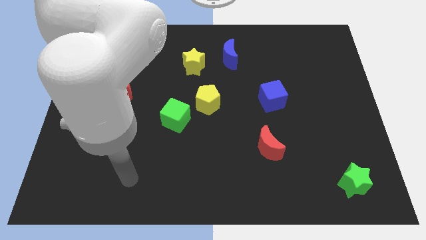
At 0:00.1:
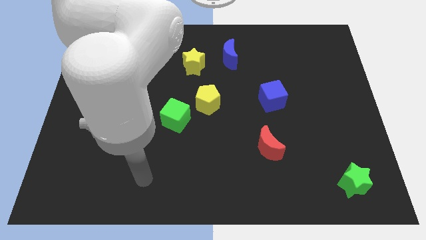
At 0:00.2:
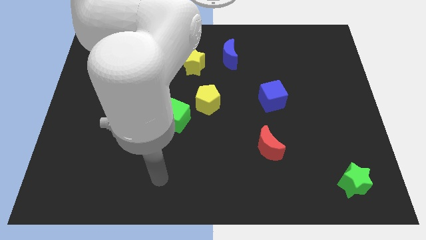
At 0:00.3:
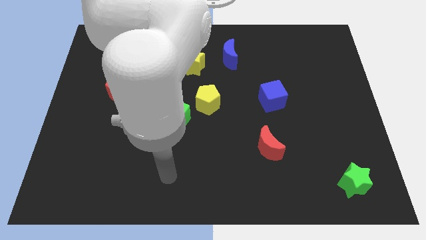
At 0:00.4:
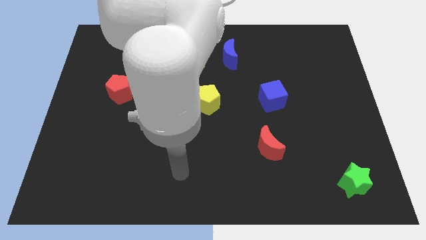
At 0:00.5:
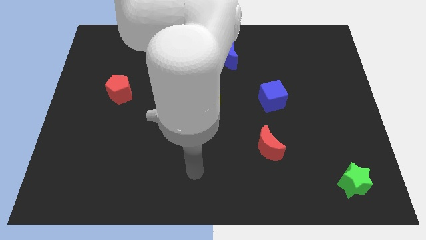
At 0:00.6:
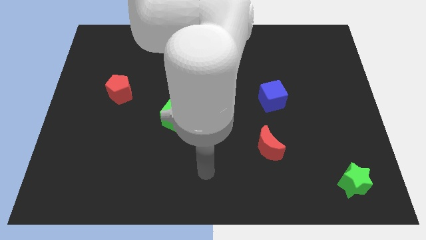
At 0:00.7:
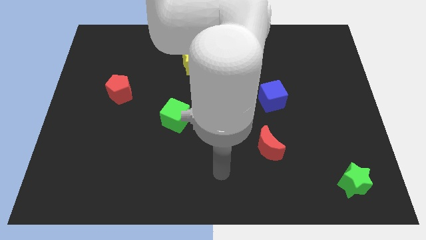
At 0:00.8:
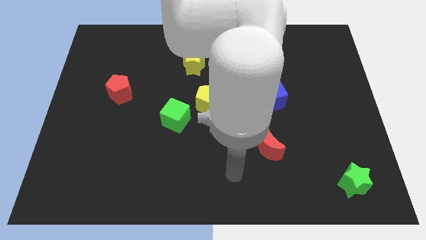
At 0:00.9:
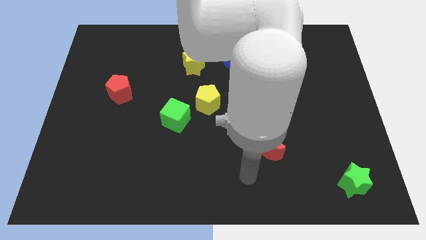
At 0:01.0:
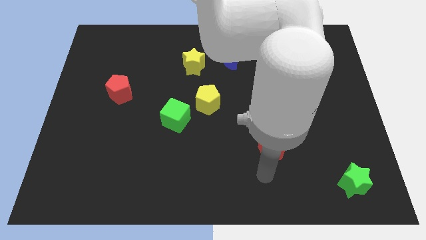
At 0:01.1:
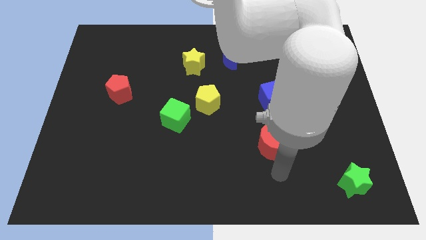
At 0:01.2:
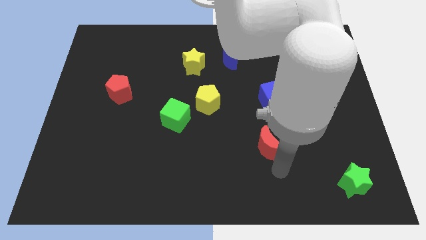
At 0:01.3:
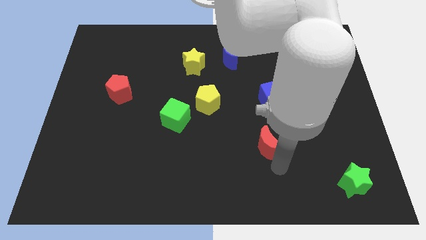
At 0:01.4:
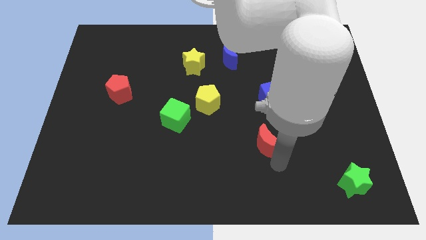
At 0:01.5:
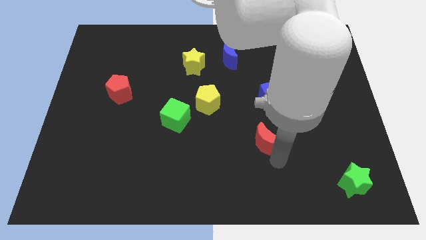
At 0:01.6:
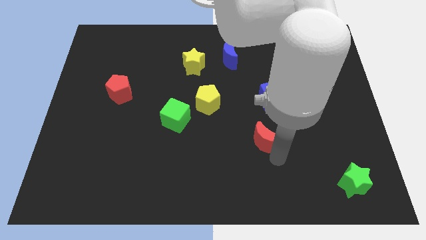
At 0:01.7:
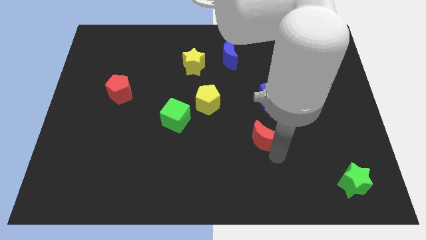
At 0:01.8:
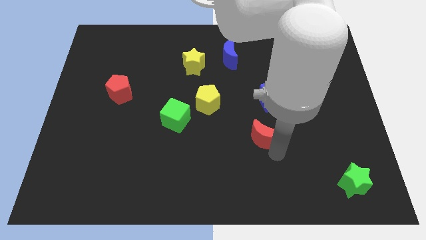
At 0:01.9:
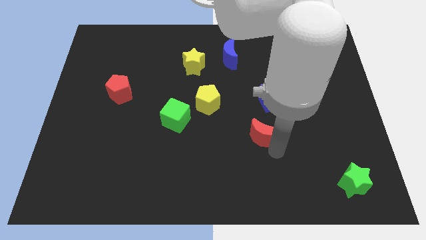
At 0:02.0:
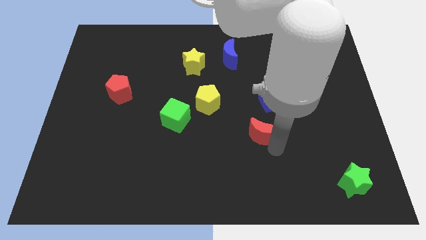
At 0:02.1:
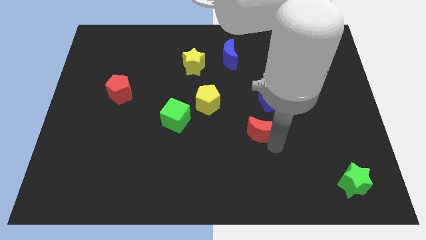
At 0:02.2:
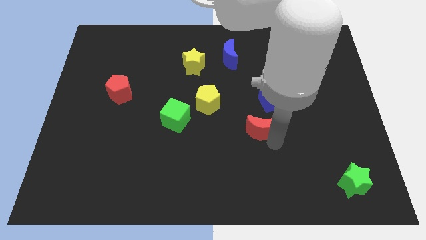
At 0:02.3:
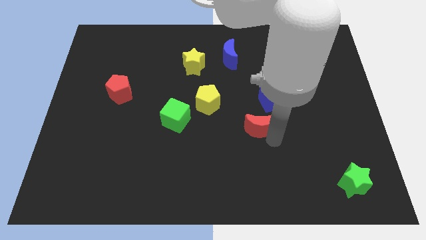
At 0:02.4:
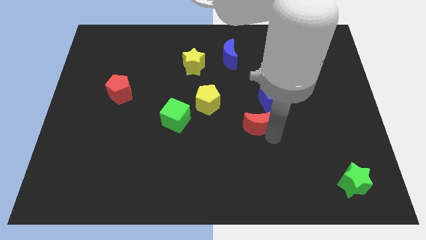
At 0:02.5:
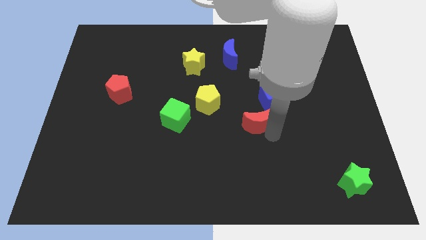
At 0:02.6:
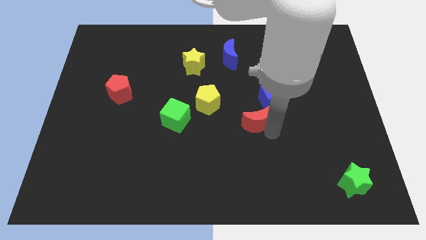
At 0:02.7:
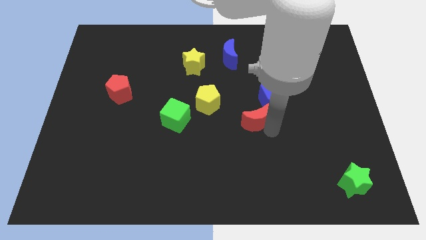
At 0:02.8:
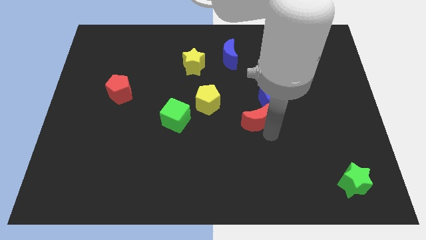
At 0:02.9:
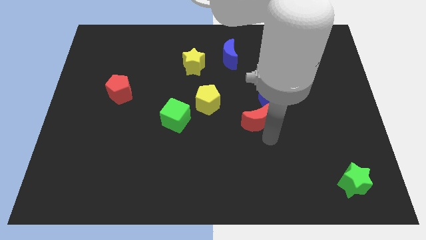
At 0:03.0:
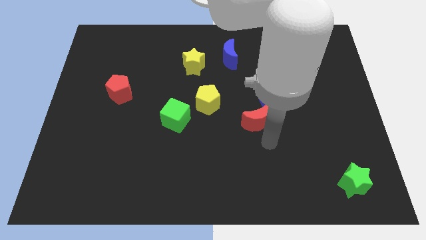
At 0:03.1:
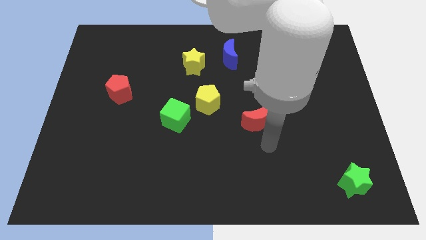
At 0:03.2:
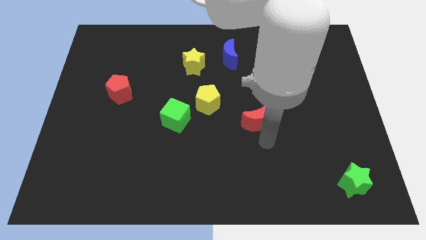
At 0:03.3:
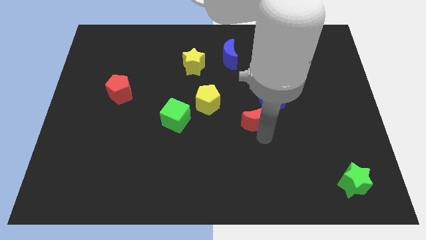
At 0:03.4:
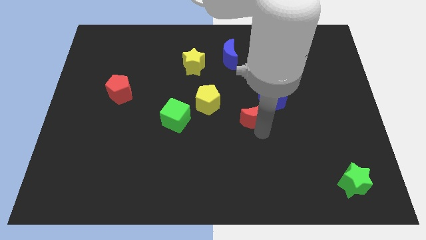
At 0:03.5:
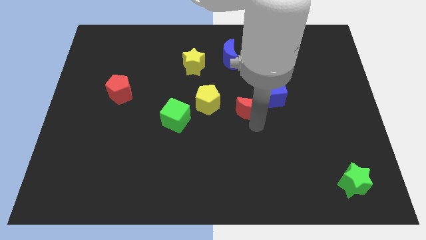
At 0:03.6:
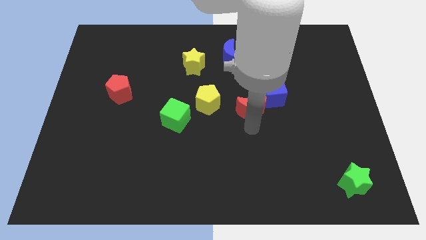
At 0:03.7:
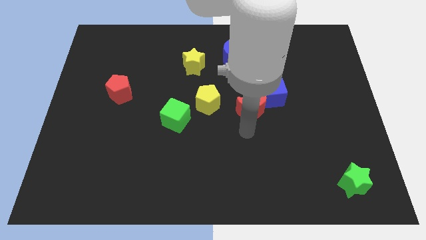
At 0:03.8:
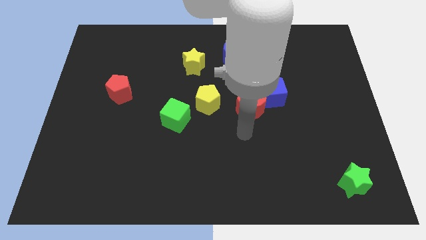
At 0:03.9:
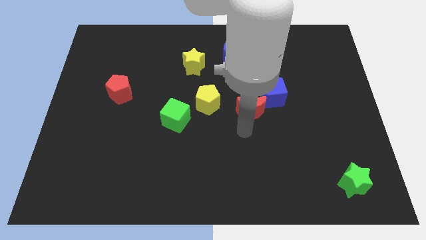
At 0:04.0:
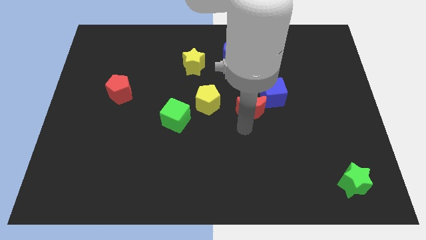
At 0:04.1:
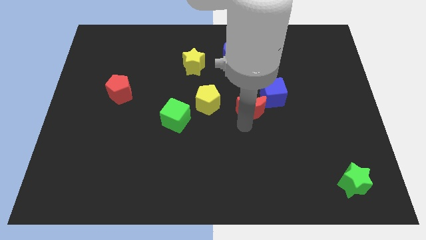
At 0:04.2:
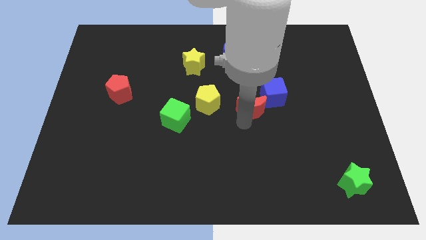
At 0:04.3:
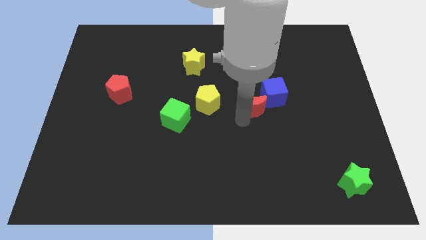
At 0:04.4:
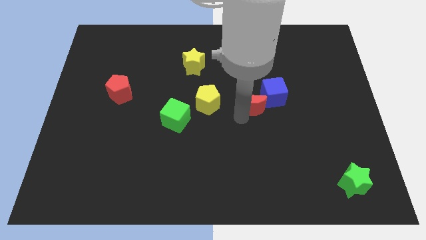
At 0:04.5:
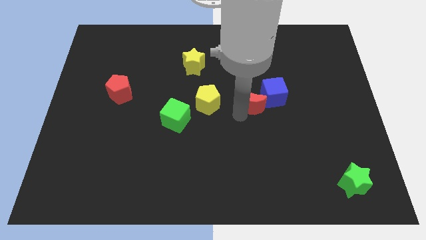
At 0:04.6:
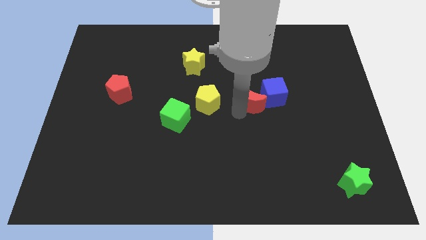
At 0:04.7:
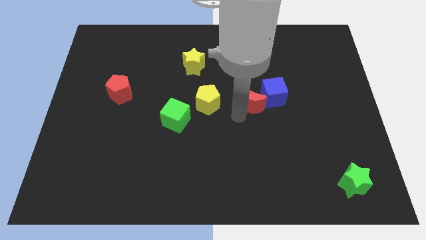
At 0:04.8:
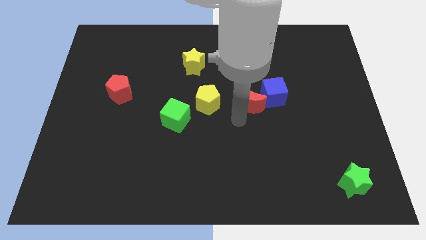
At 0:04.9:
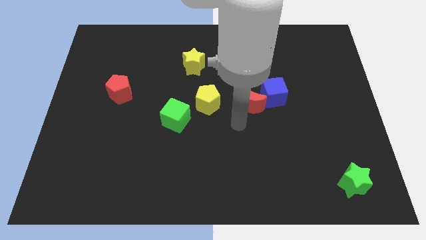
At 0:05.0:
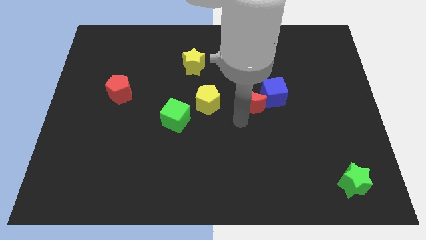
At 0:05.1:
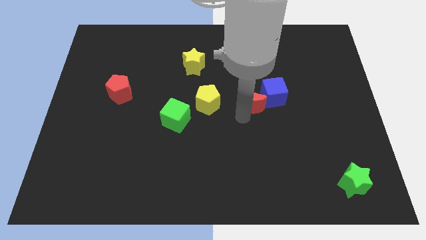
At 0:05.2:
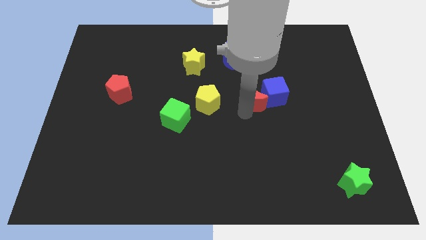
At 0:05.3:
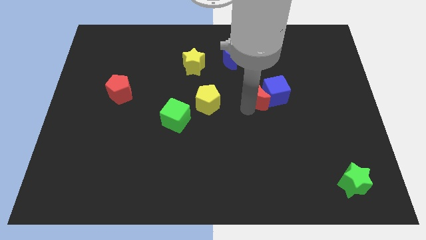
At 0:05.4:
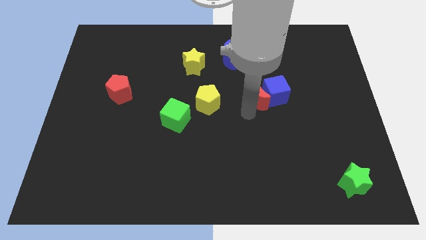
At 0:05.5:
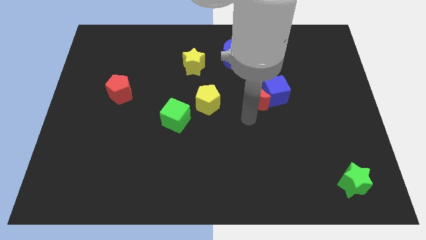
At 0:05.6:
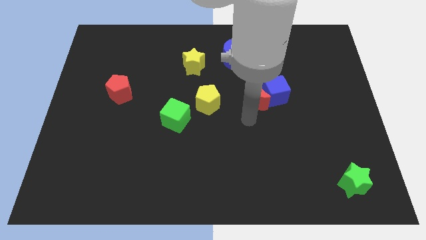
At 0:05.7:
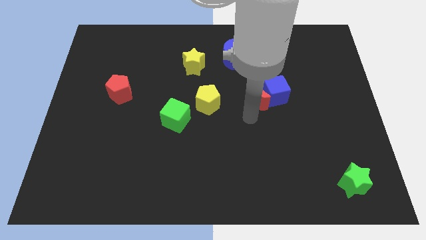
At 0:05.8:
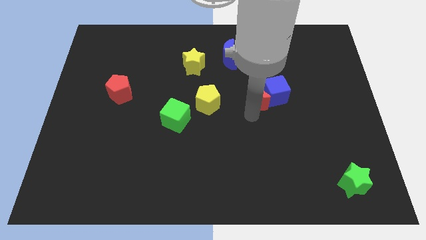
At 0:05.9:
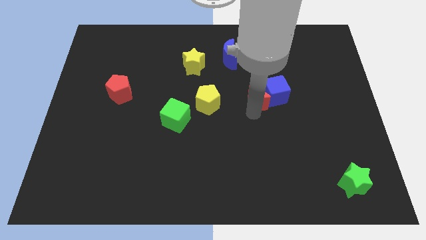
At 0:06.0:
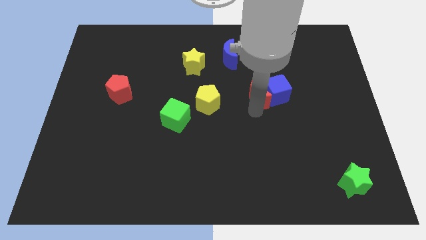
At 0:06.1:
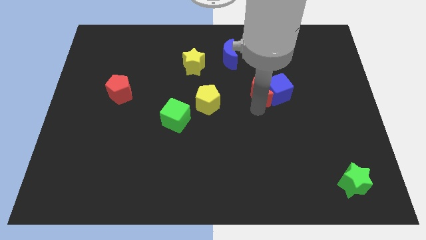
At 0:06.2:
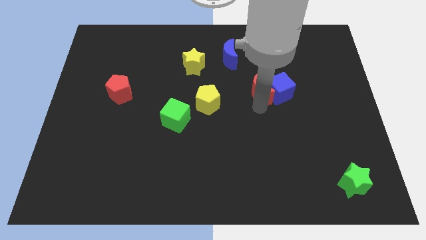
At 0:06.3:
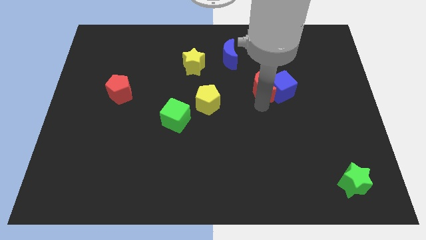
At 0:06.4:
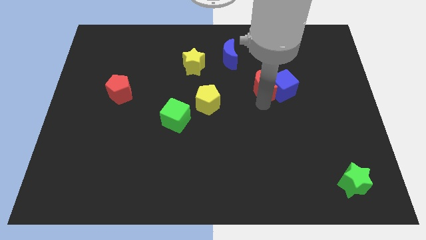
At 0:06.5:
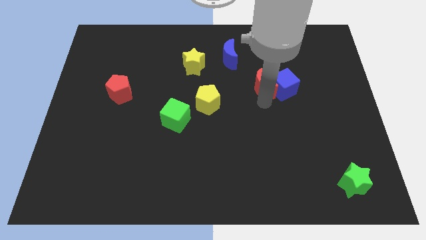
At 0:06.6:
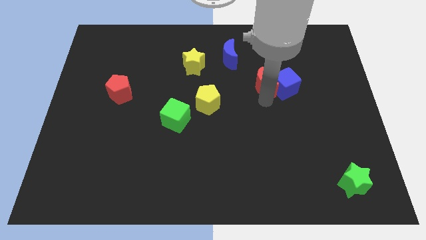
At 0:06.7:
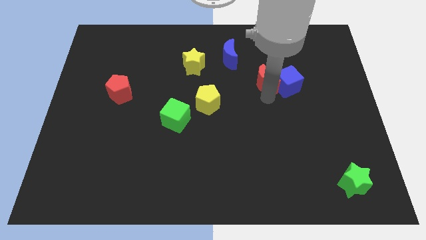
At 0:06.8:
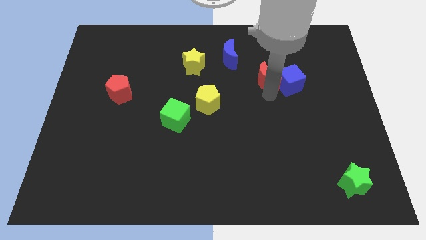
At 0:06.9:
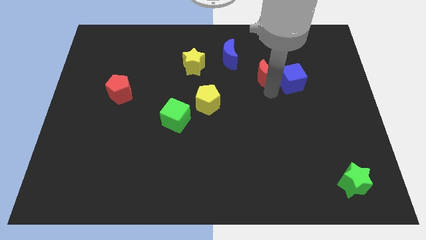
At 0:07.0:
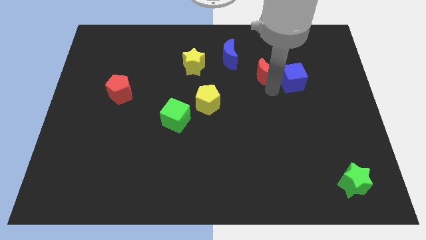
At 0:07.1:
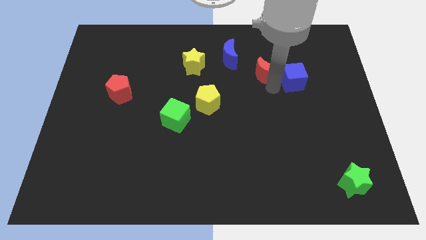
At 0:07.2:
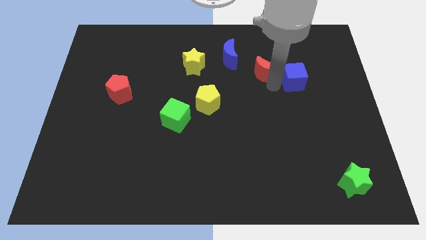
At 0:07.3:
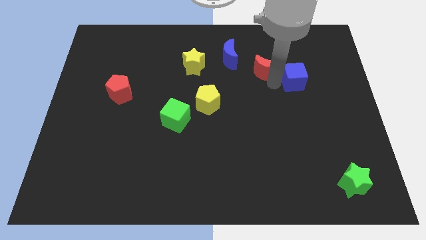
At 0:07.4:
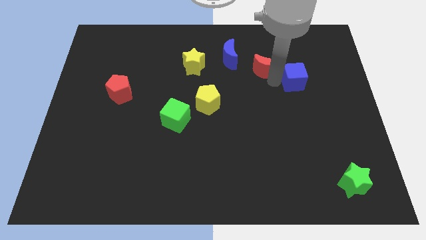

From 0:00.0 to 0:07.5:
slide the red moon to the right side of the blue moon

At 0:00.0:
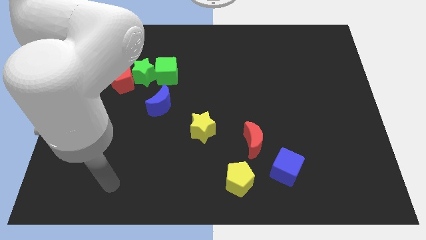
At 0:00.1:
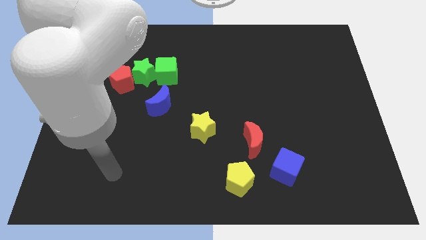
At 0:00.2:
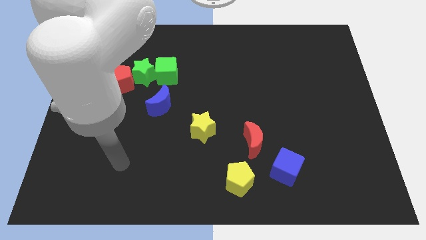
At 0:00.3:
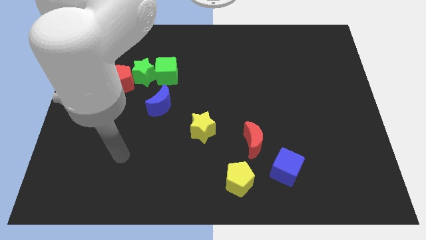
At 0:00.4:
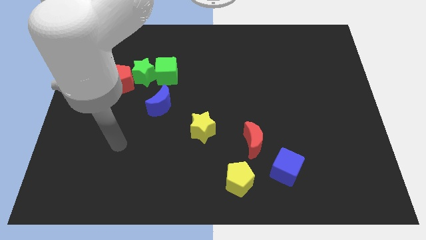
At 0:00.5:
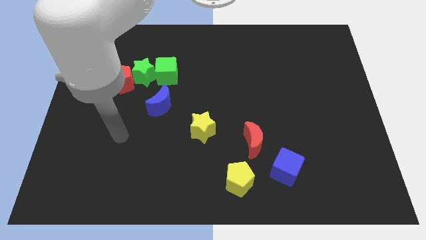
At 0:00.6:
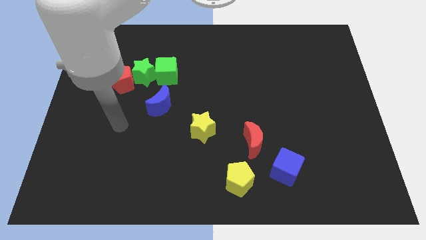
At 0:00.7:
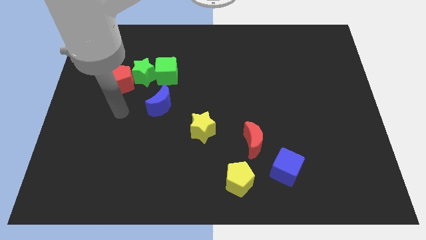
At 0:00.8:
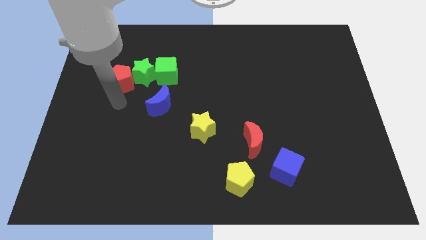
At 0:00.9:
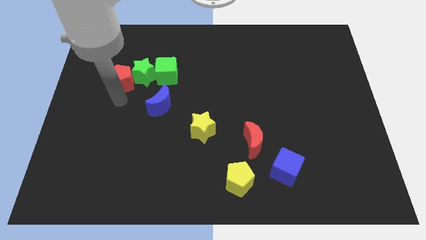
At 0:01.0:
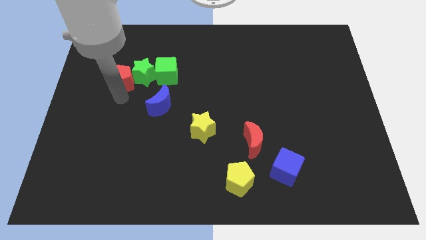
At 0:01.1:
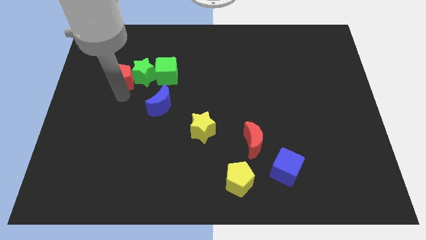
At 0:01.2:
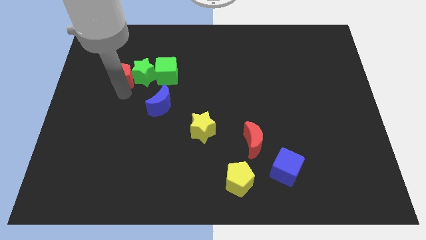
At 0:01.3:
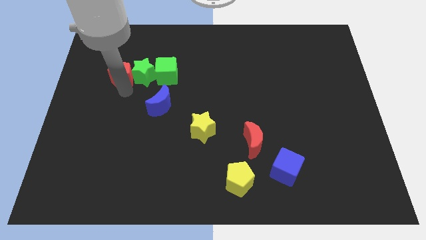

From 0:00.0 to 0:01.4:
put the red pentagon diagonally up and to the left of the green star
